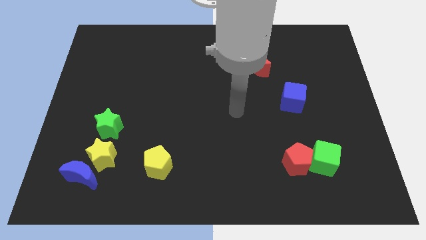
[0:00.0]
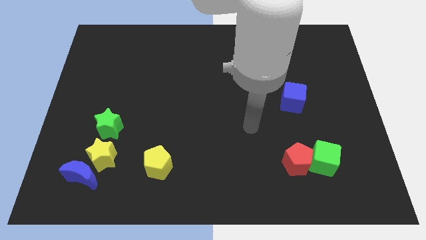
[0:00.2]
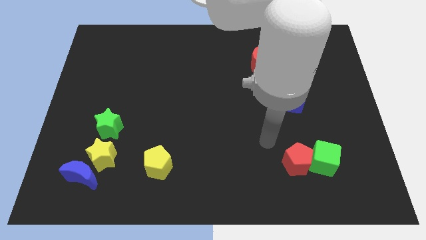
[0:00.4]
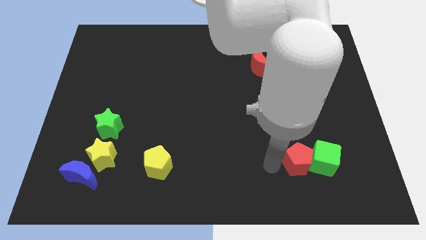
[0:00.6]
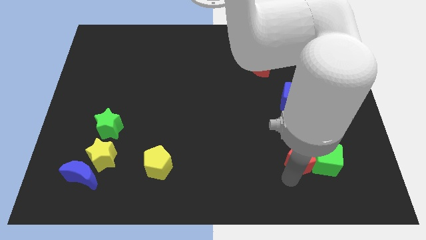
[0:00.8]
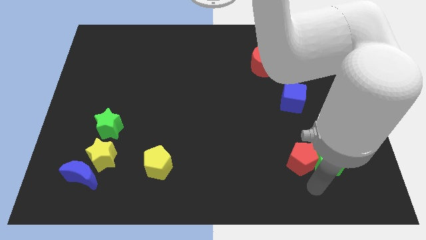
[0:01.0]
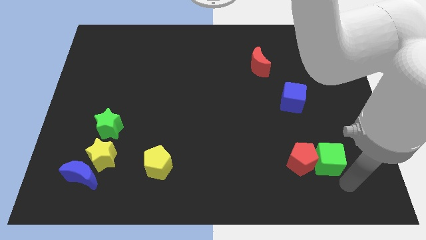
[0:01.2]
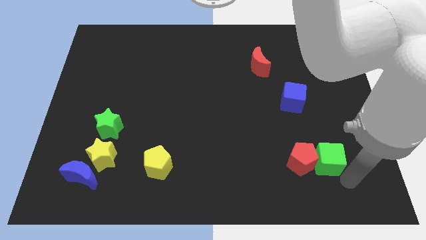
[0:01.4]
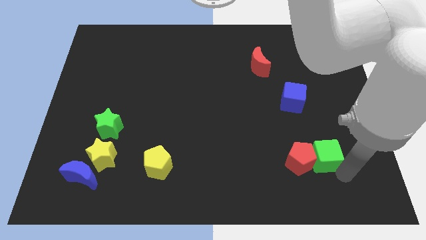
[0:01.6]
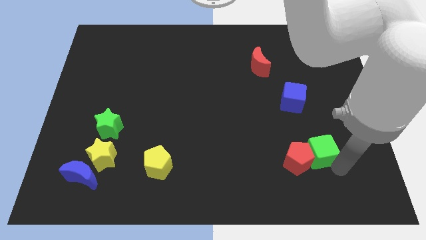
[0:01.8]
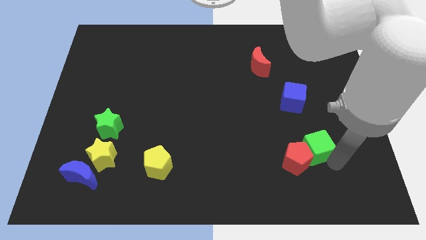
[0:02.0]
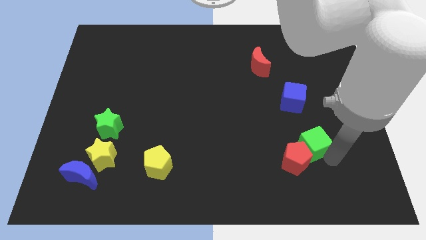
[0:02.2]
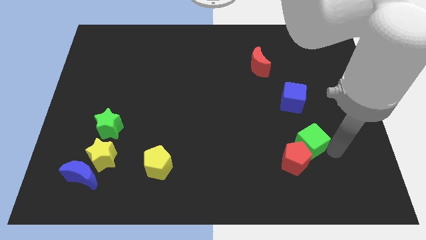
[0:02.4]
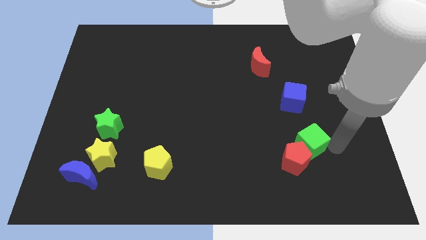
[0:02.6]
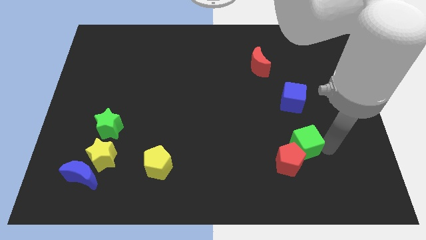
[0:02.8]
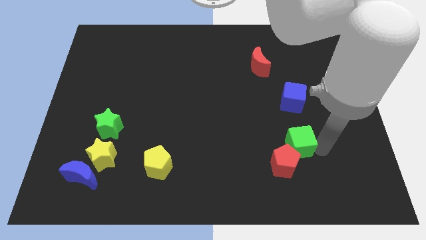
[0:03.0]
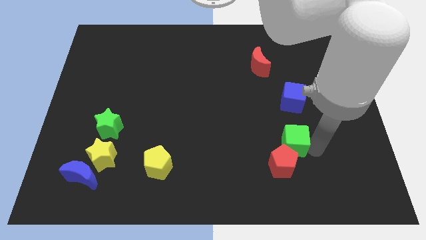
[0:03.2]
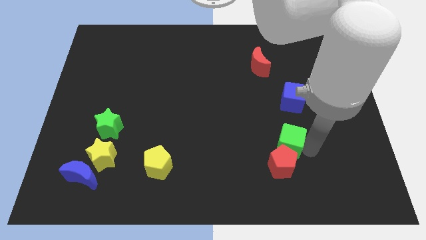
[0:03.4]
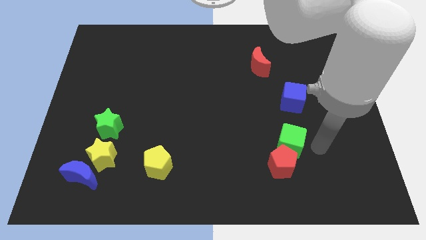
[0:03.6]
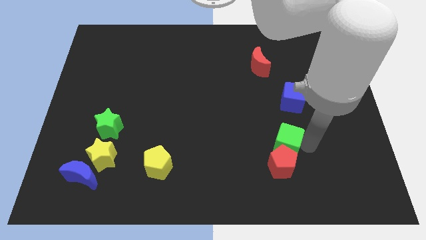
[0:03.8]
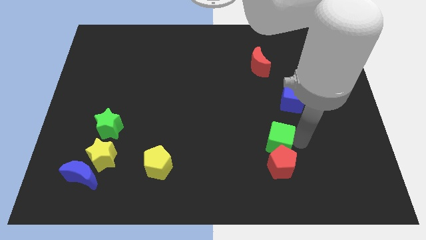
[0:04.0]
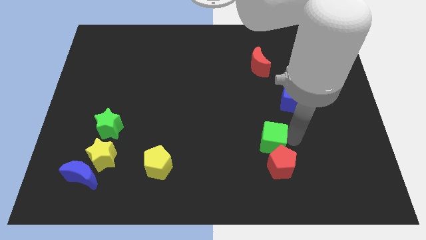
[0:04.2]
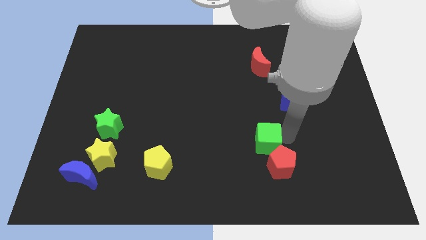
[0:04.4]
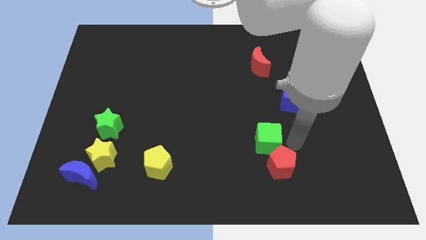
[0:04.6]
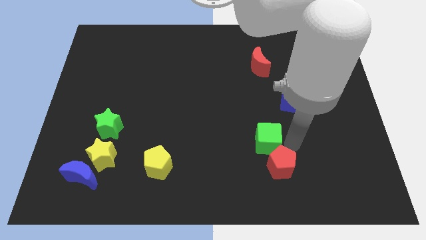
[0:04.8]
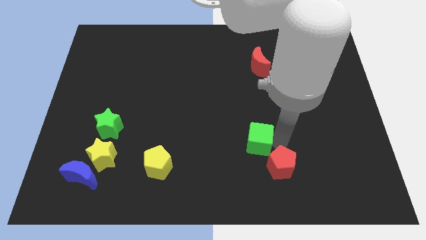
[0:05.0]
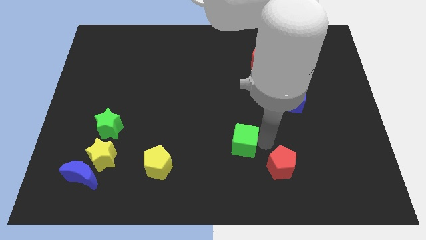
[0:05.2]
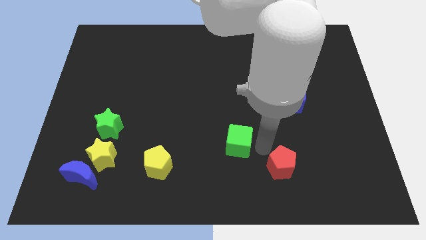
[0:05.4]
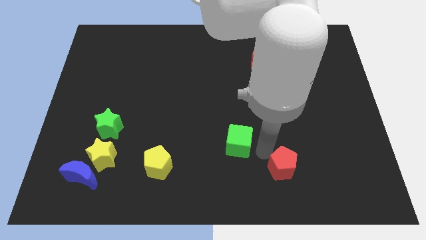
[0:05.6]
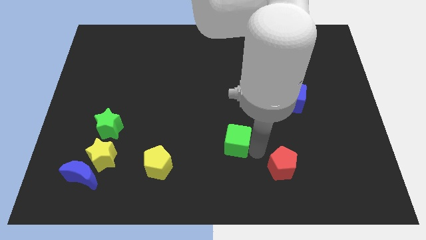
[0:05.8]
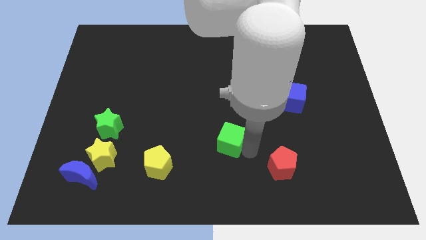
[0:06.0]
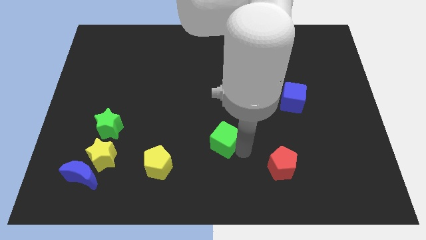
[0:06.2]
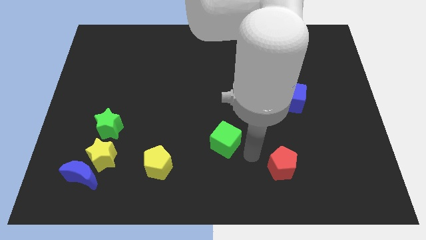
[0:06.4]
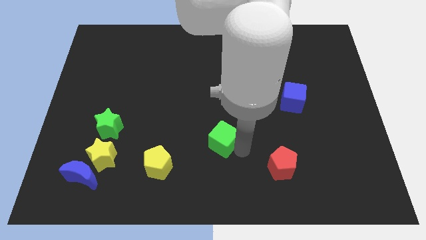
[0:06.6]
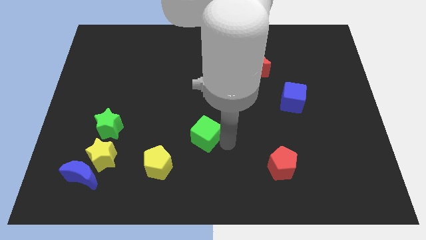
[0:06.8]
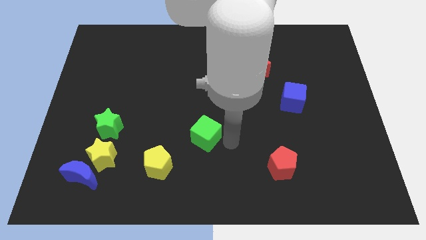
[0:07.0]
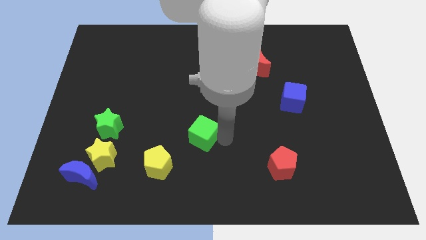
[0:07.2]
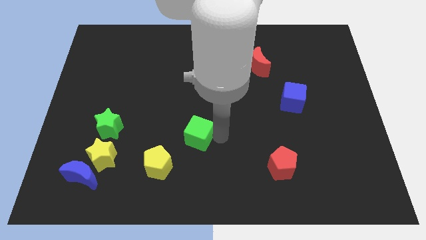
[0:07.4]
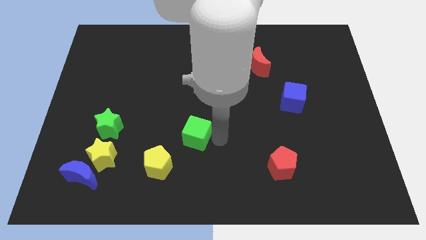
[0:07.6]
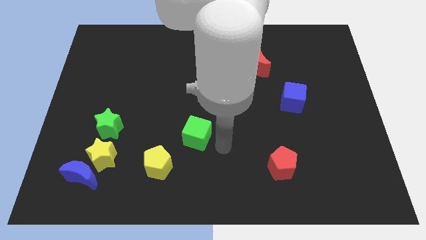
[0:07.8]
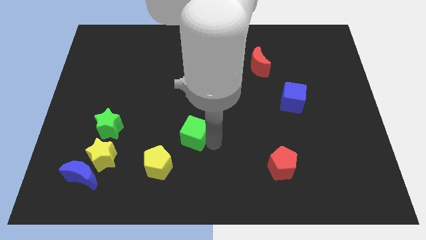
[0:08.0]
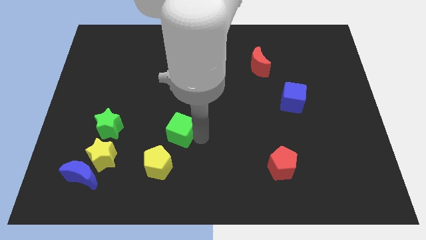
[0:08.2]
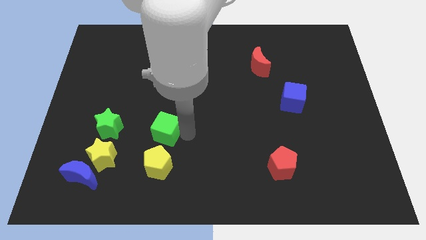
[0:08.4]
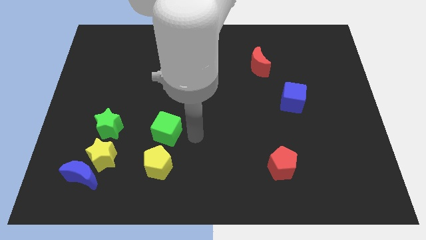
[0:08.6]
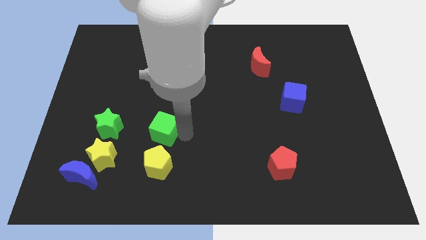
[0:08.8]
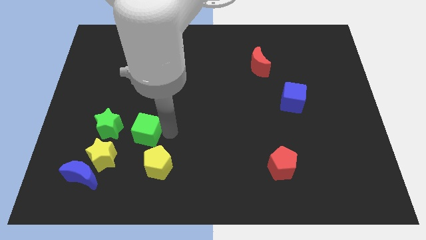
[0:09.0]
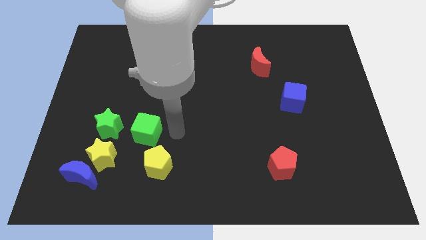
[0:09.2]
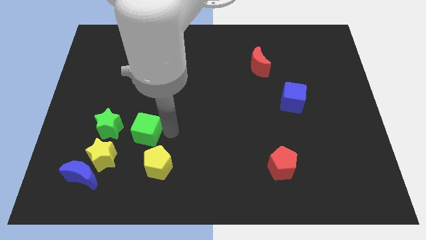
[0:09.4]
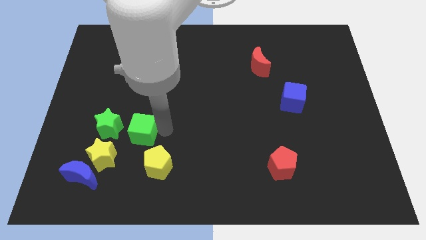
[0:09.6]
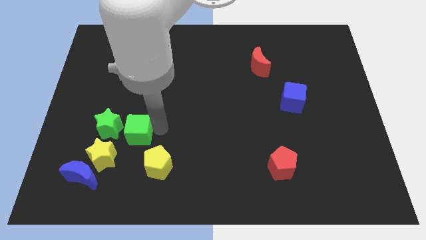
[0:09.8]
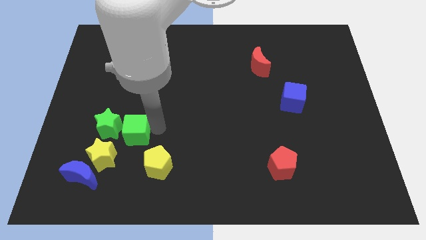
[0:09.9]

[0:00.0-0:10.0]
push the green cube close to the green star
